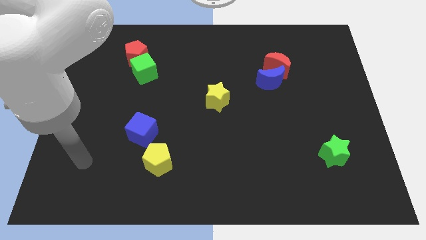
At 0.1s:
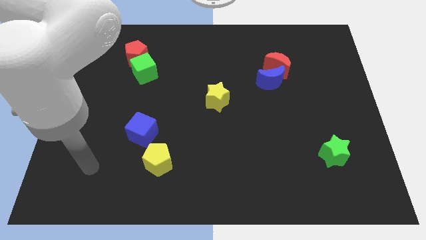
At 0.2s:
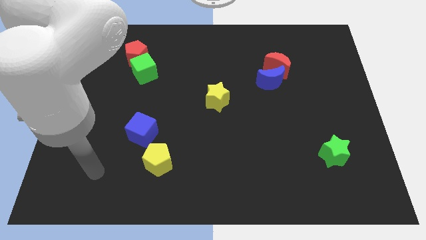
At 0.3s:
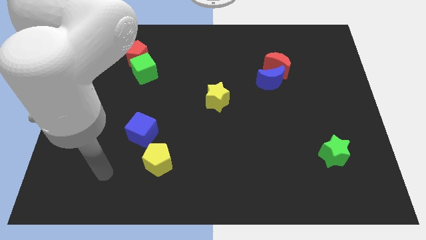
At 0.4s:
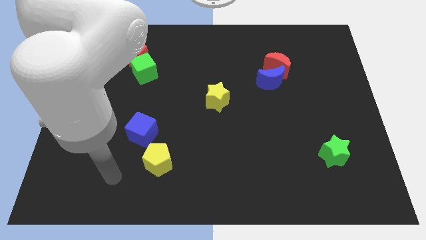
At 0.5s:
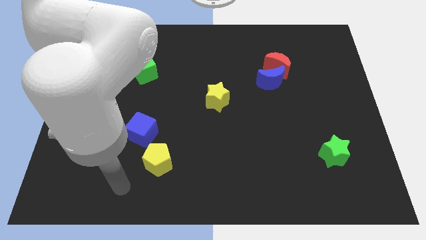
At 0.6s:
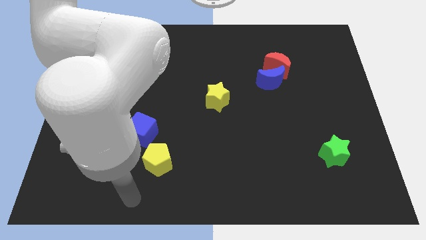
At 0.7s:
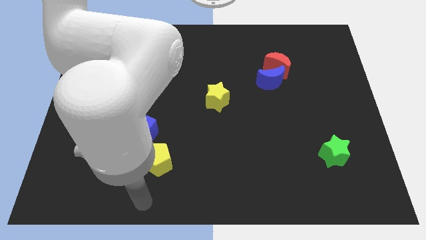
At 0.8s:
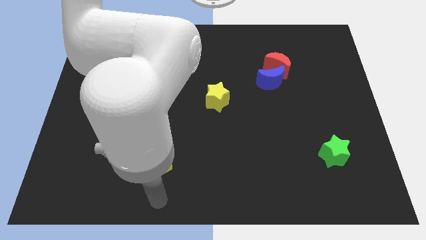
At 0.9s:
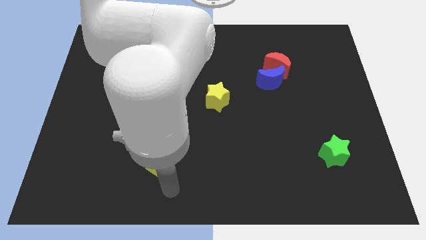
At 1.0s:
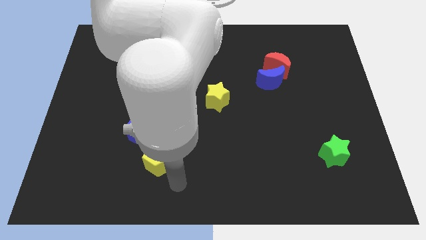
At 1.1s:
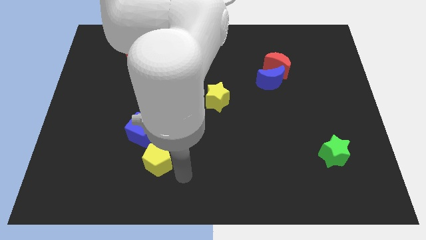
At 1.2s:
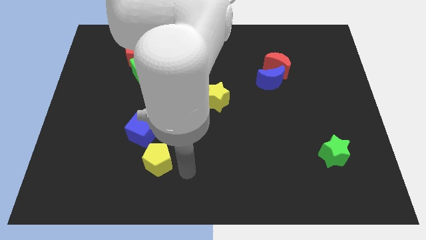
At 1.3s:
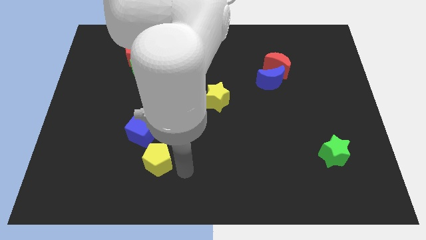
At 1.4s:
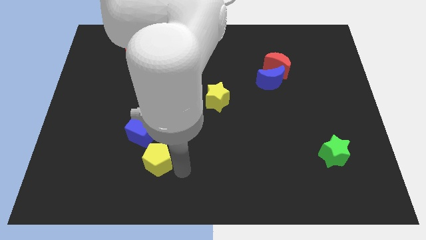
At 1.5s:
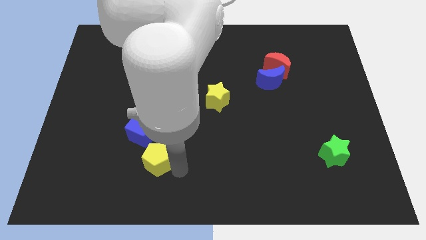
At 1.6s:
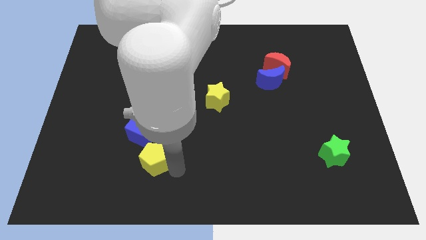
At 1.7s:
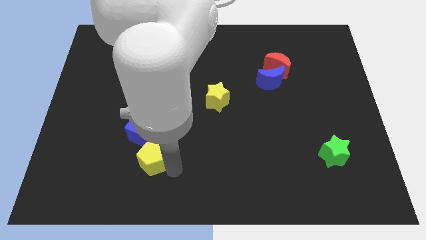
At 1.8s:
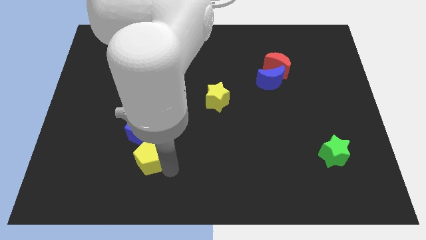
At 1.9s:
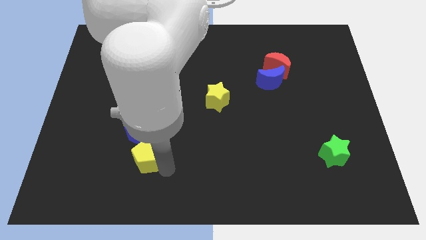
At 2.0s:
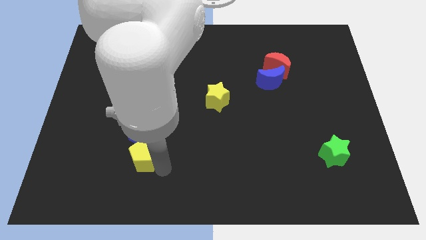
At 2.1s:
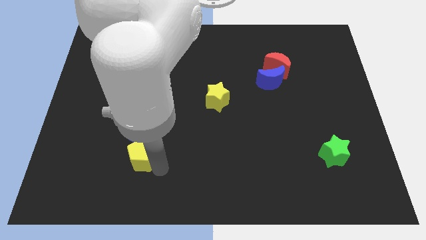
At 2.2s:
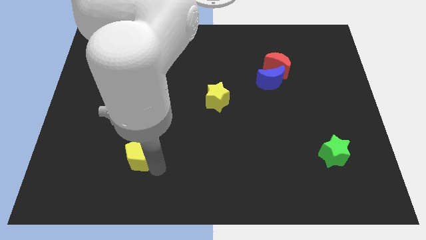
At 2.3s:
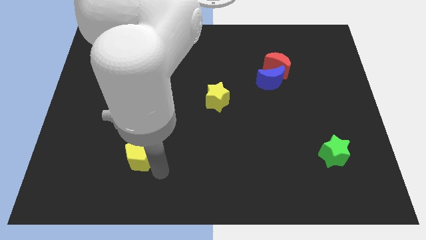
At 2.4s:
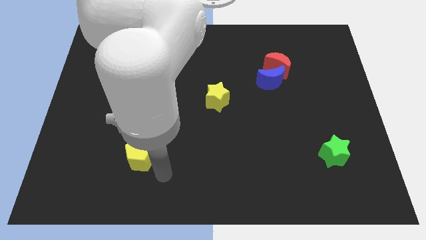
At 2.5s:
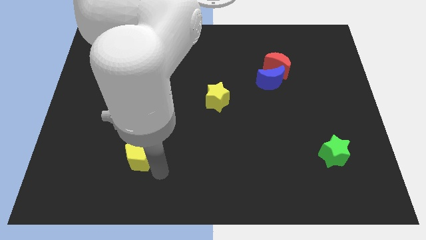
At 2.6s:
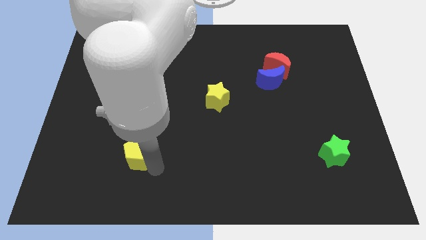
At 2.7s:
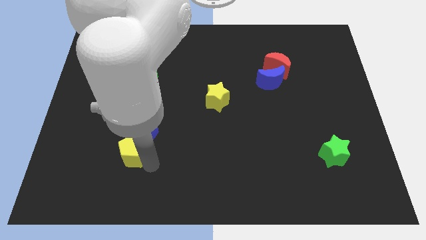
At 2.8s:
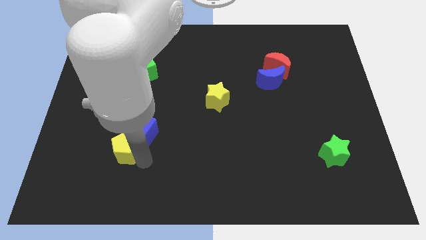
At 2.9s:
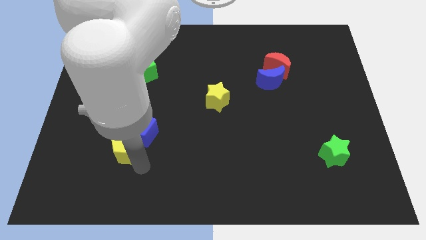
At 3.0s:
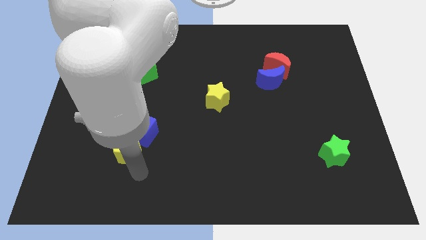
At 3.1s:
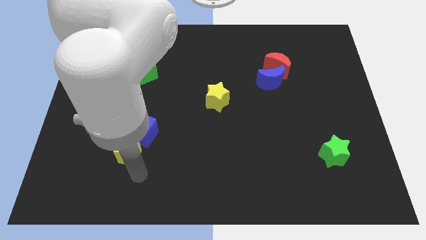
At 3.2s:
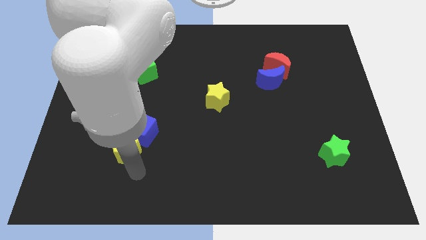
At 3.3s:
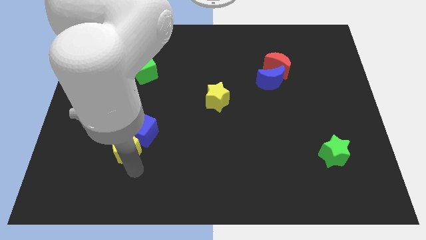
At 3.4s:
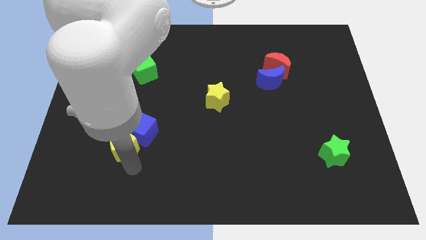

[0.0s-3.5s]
move the yellow pentagon upwards and then left slightly

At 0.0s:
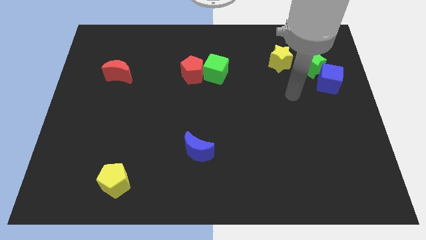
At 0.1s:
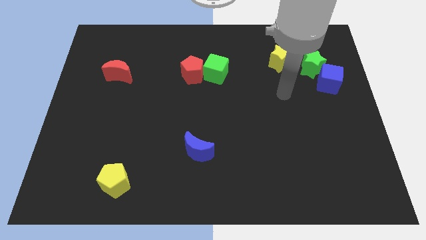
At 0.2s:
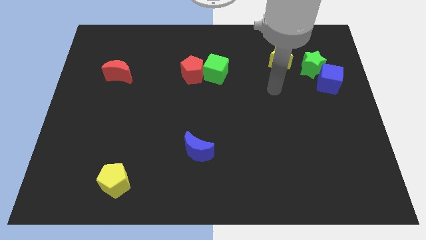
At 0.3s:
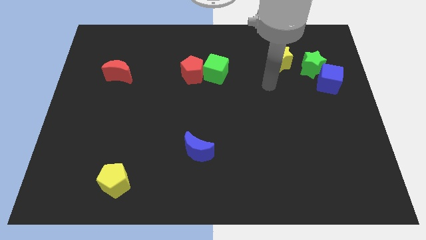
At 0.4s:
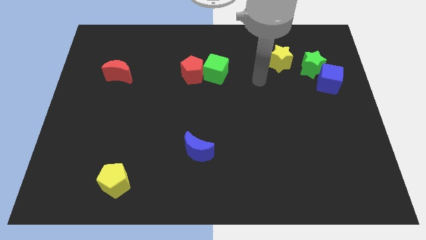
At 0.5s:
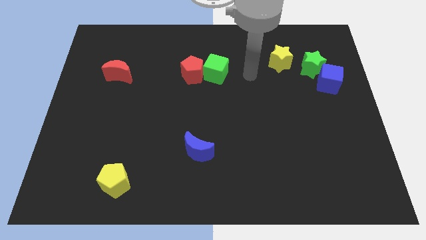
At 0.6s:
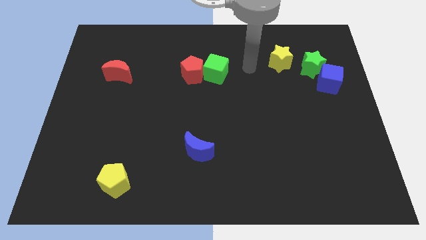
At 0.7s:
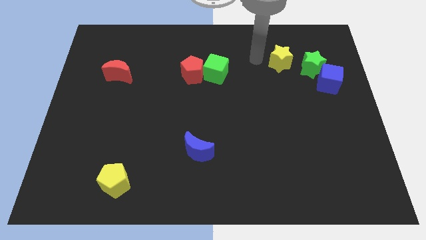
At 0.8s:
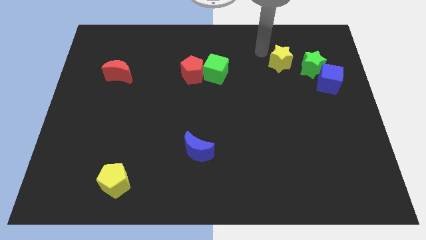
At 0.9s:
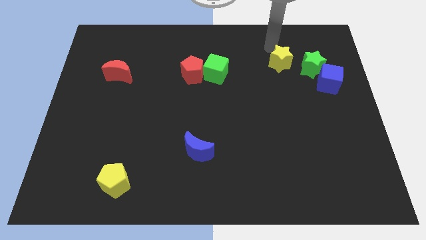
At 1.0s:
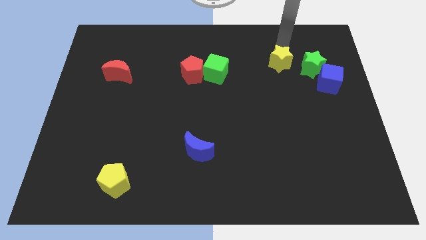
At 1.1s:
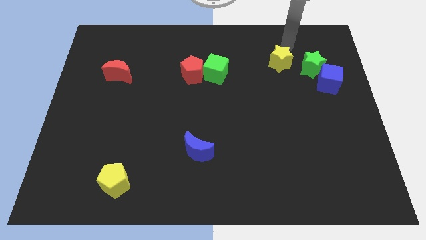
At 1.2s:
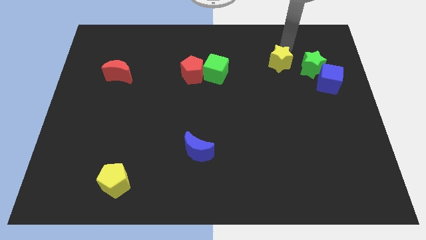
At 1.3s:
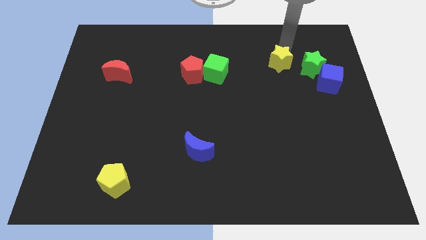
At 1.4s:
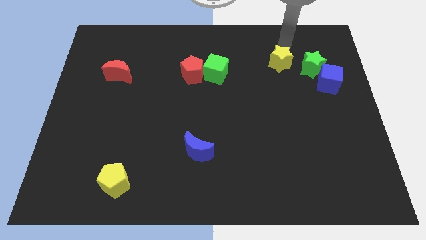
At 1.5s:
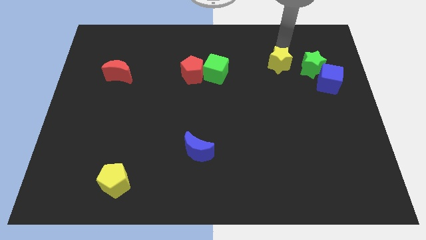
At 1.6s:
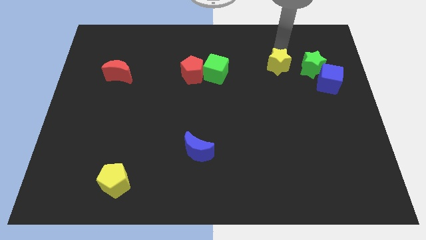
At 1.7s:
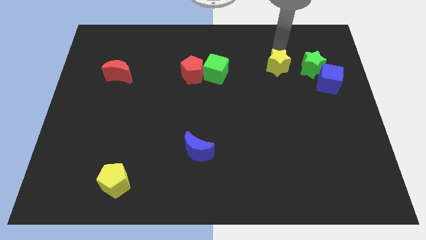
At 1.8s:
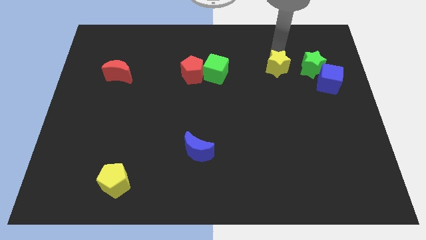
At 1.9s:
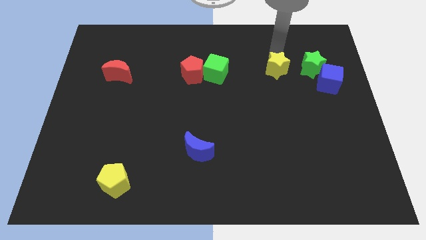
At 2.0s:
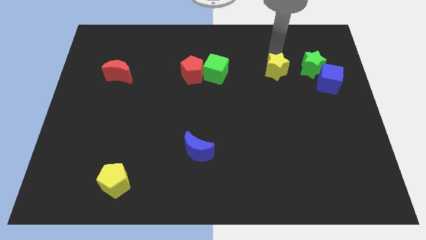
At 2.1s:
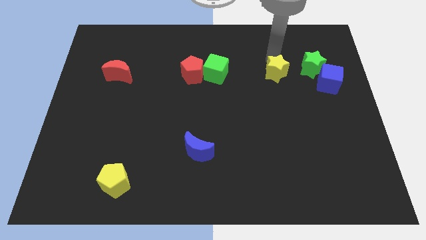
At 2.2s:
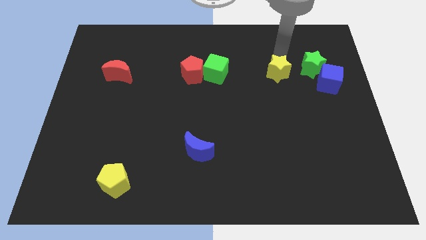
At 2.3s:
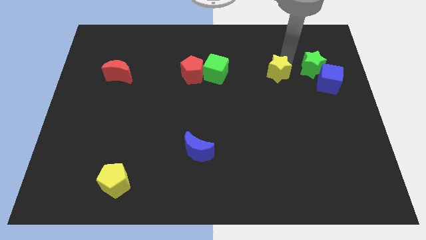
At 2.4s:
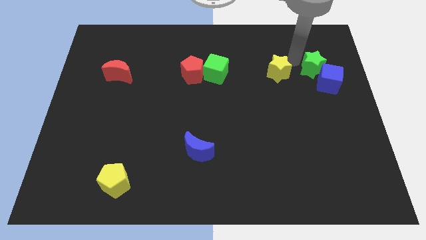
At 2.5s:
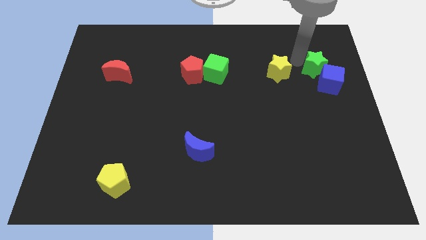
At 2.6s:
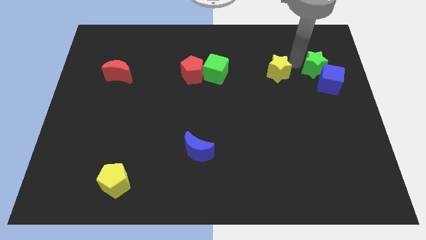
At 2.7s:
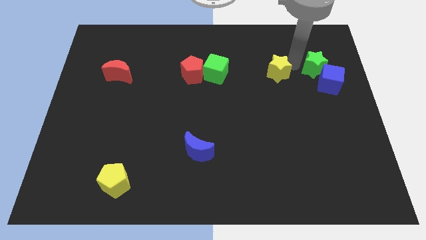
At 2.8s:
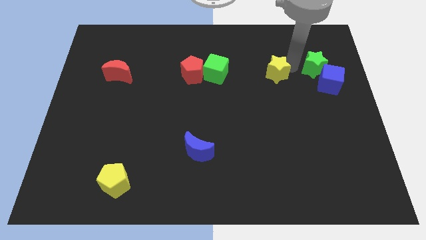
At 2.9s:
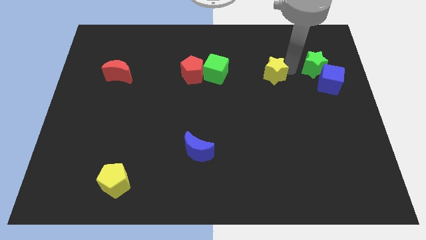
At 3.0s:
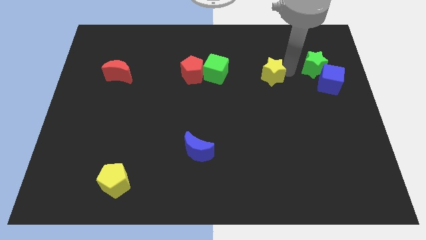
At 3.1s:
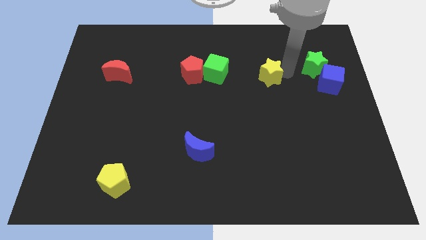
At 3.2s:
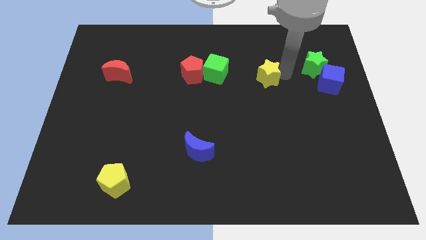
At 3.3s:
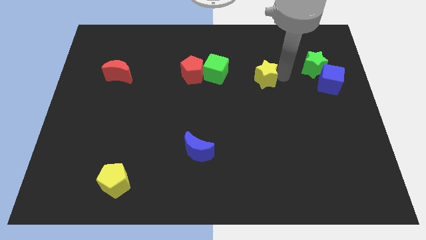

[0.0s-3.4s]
slide the yellow star downwards and left somewhat

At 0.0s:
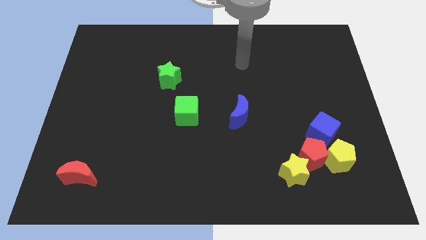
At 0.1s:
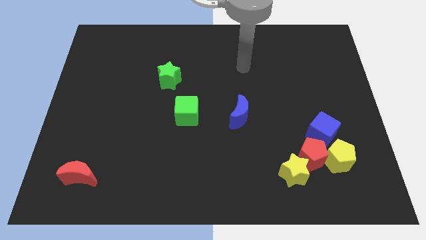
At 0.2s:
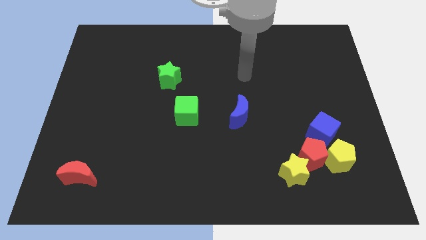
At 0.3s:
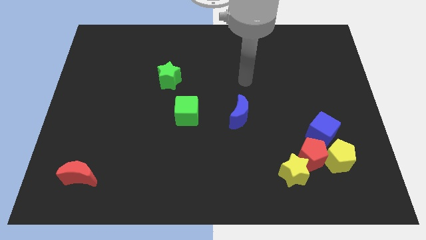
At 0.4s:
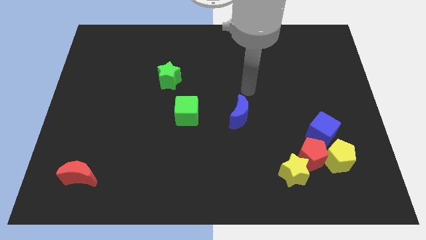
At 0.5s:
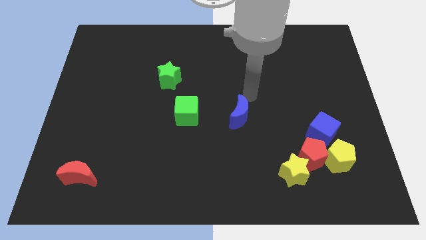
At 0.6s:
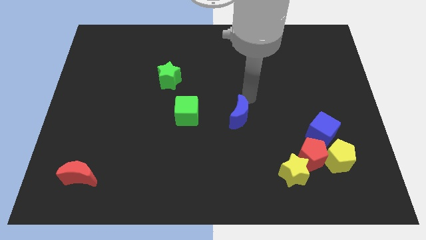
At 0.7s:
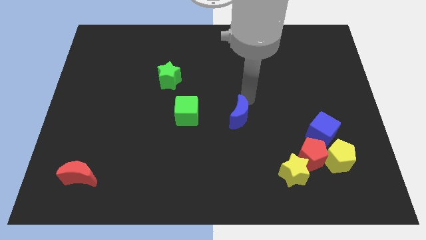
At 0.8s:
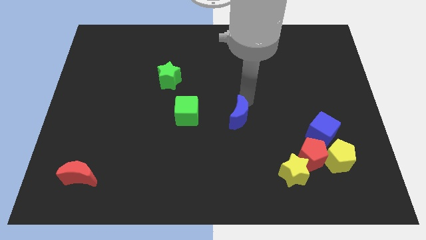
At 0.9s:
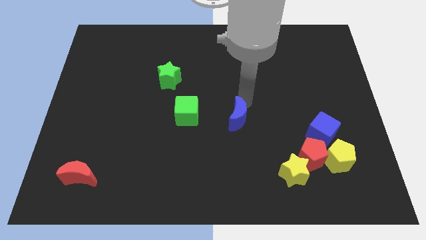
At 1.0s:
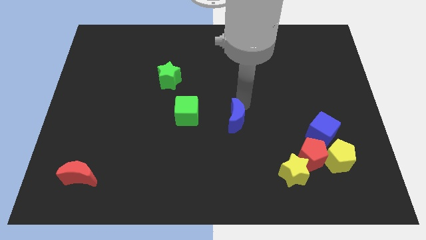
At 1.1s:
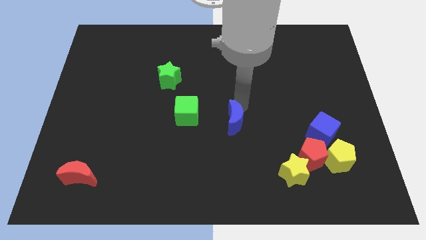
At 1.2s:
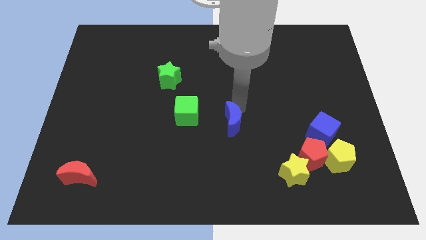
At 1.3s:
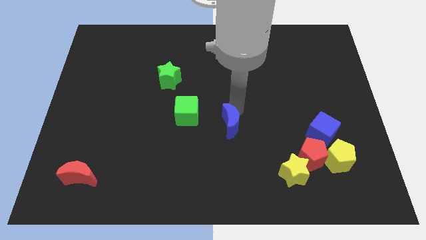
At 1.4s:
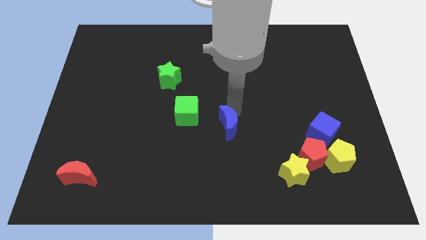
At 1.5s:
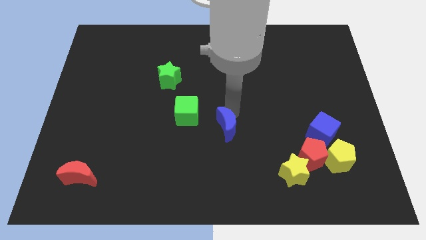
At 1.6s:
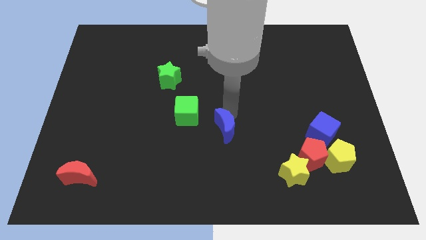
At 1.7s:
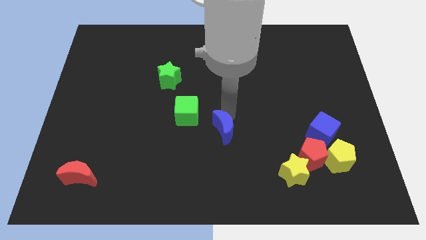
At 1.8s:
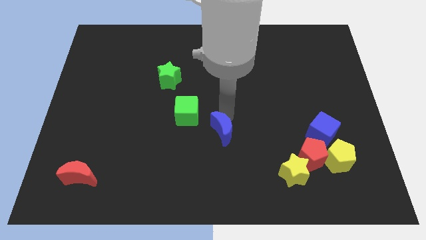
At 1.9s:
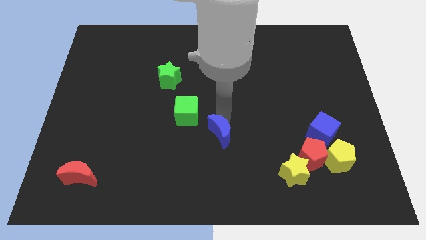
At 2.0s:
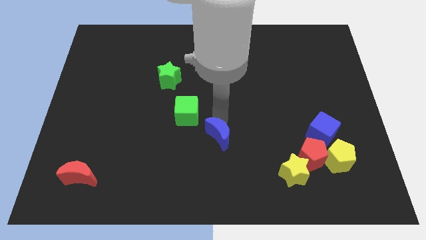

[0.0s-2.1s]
slightly slide the blue moon down and then to the left
